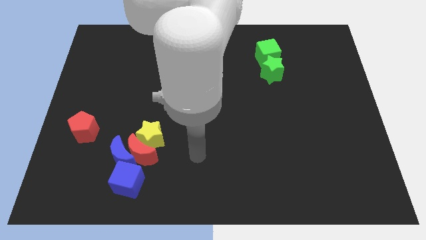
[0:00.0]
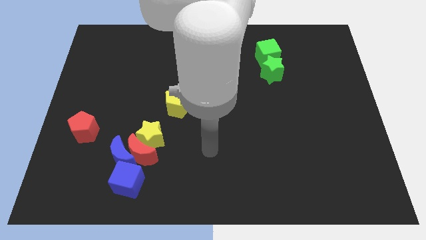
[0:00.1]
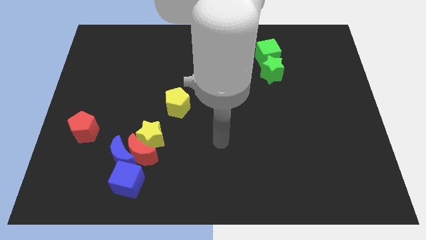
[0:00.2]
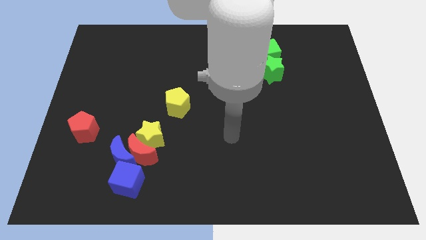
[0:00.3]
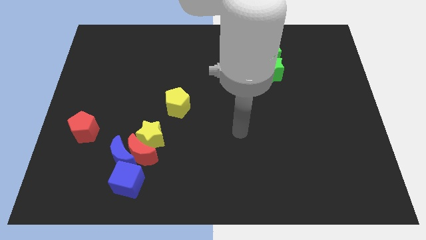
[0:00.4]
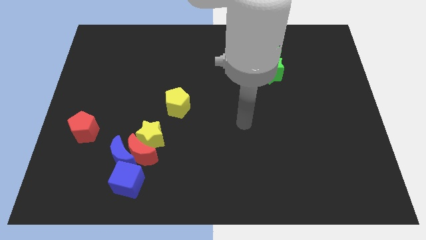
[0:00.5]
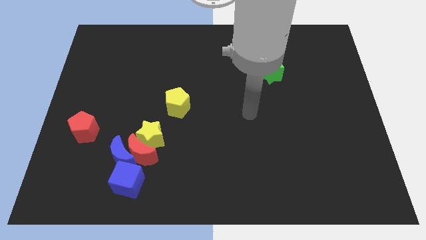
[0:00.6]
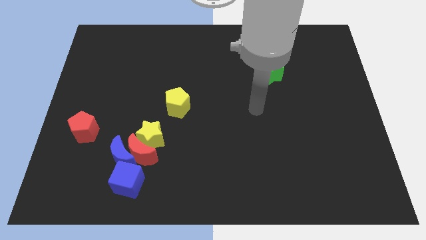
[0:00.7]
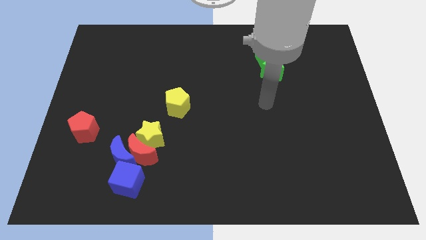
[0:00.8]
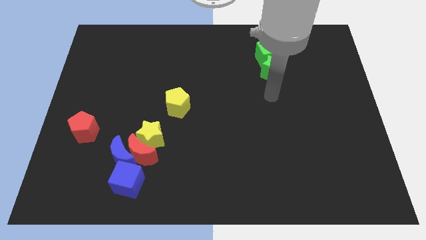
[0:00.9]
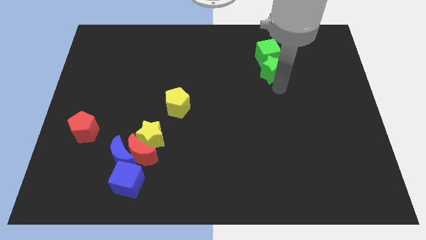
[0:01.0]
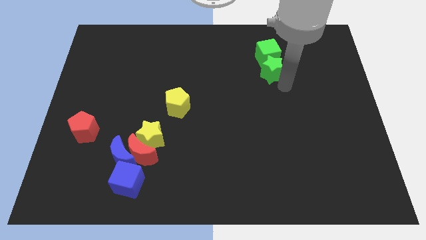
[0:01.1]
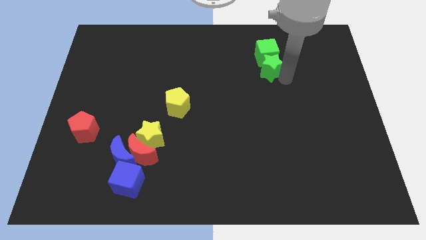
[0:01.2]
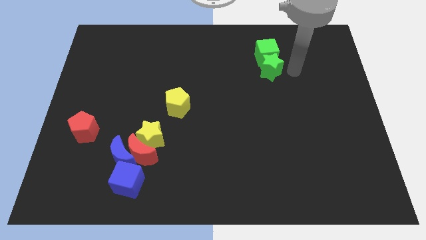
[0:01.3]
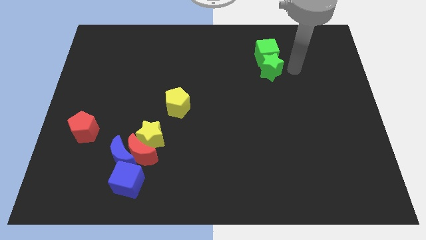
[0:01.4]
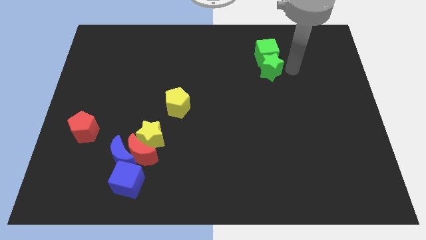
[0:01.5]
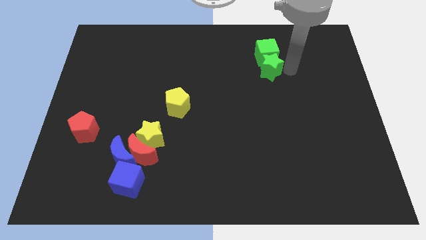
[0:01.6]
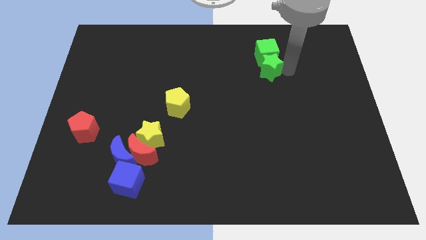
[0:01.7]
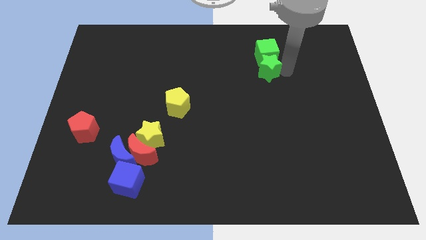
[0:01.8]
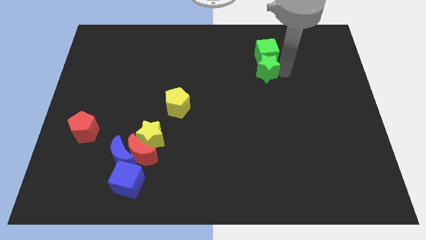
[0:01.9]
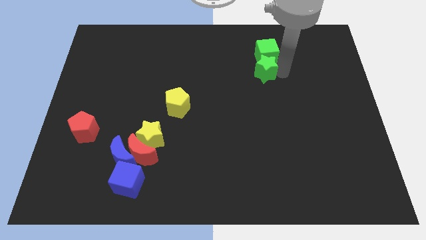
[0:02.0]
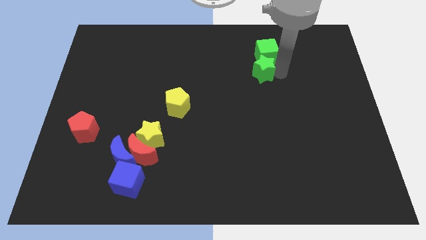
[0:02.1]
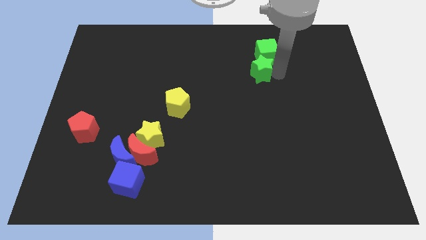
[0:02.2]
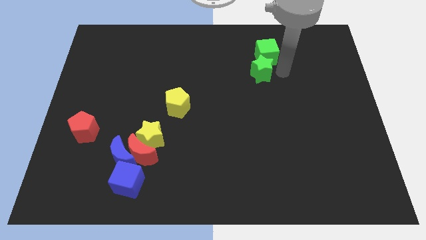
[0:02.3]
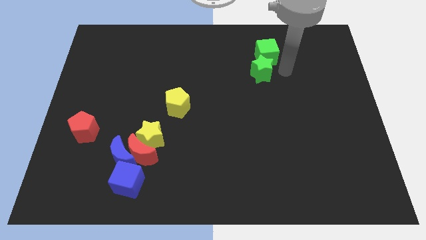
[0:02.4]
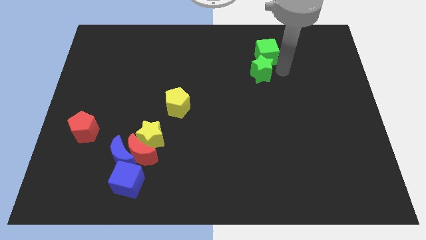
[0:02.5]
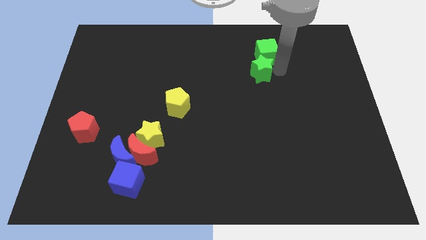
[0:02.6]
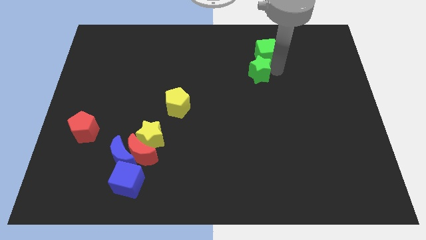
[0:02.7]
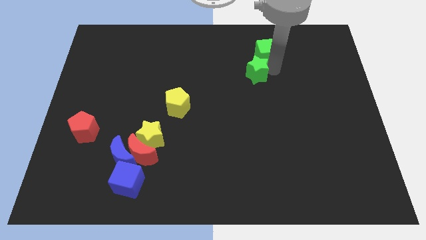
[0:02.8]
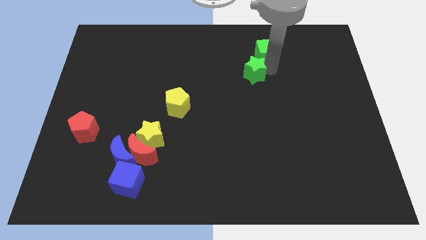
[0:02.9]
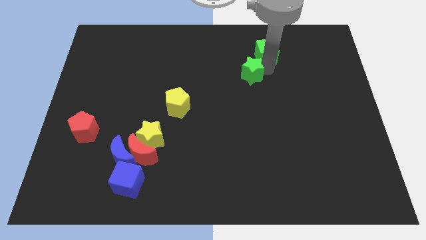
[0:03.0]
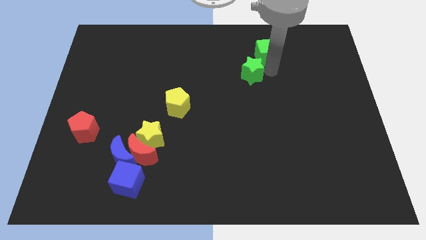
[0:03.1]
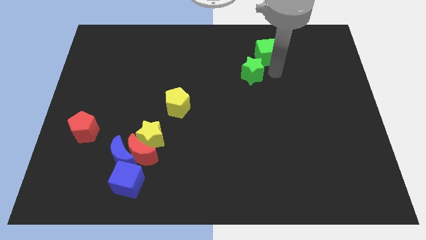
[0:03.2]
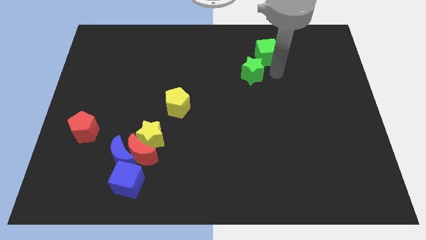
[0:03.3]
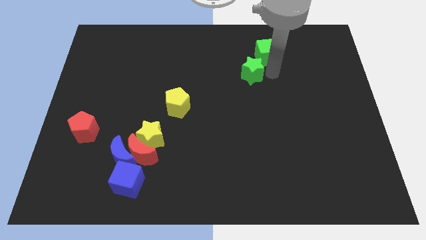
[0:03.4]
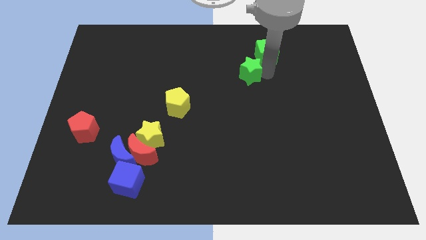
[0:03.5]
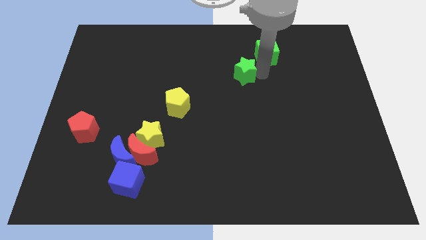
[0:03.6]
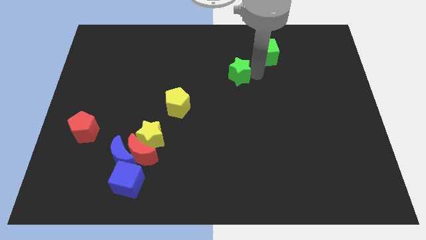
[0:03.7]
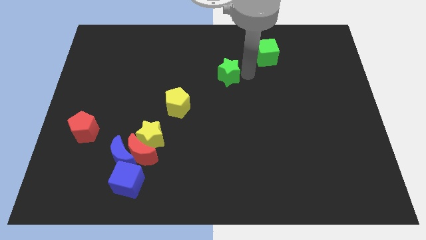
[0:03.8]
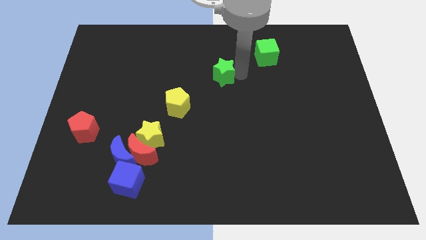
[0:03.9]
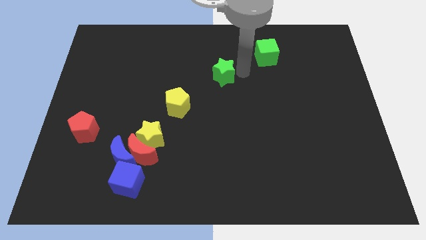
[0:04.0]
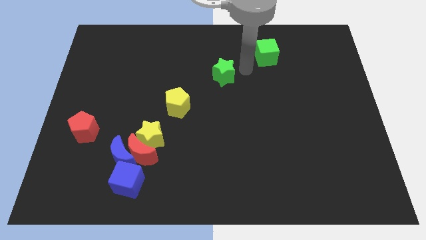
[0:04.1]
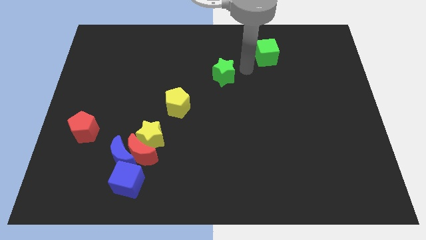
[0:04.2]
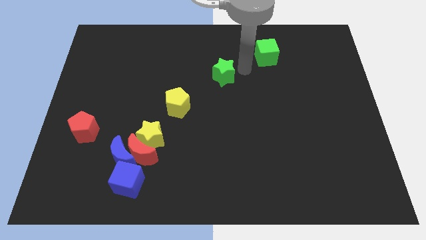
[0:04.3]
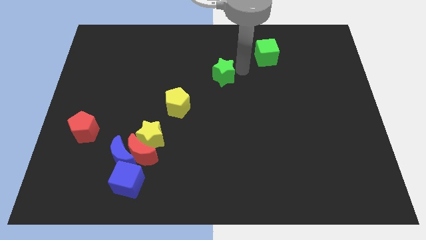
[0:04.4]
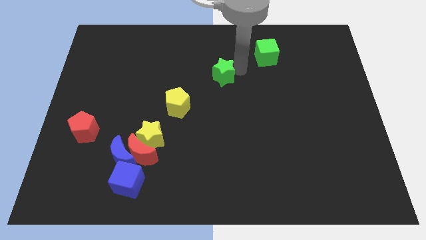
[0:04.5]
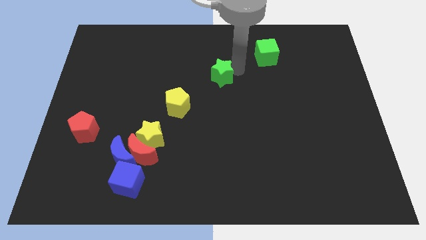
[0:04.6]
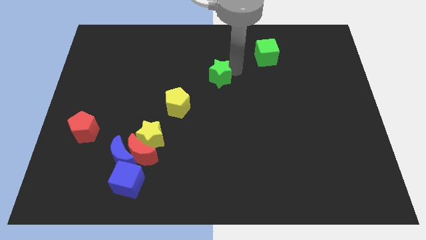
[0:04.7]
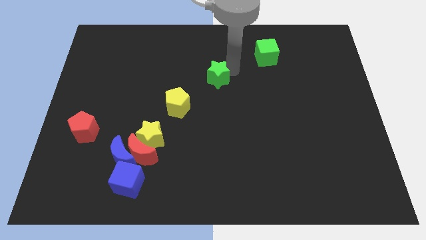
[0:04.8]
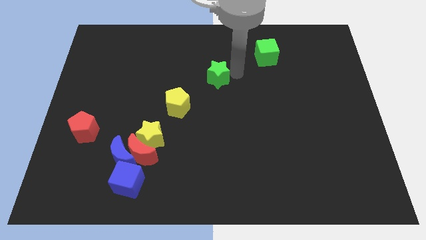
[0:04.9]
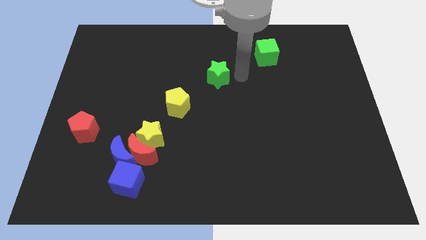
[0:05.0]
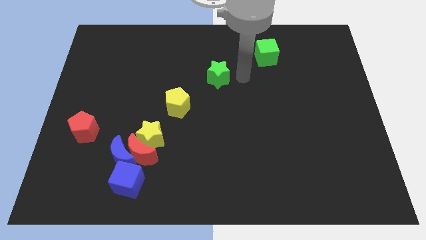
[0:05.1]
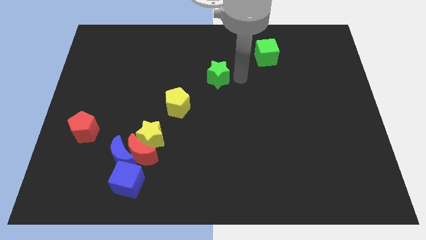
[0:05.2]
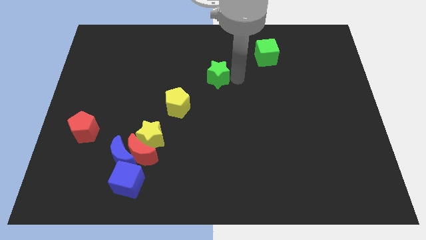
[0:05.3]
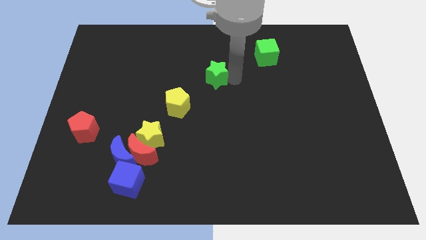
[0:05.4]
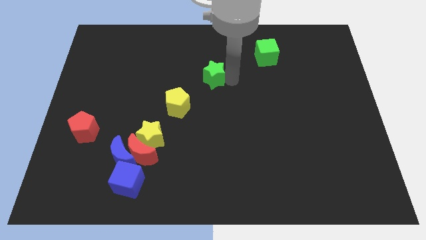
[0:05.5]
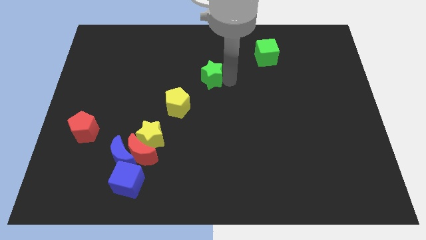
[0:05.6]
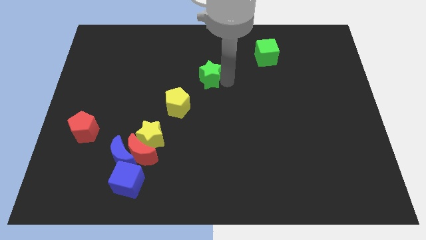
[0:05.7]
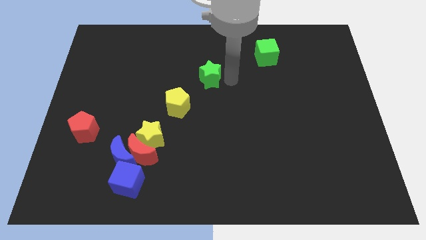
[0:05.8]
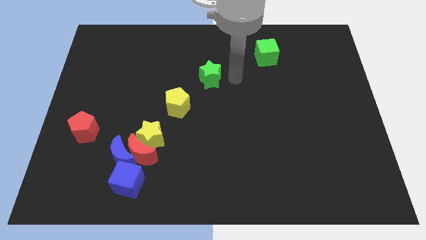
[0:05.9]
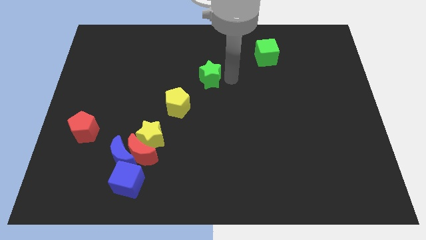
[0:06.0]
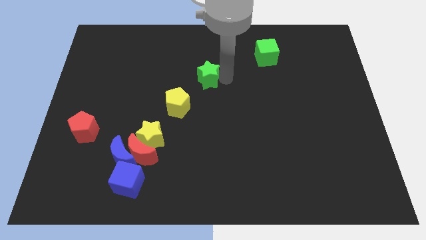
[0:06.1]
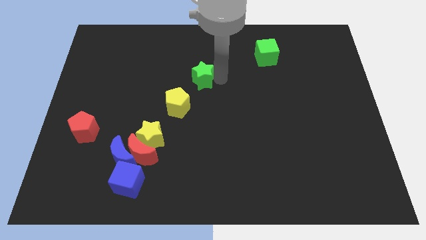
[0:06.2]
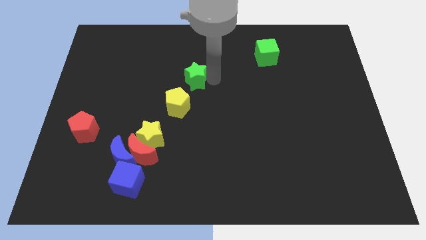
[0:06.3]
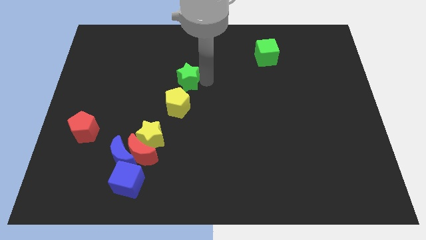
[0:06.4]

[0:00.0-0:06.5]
move the green star to the left

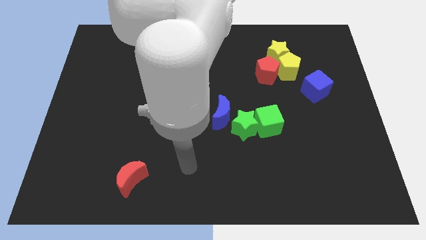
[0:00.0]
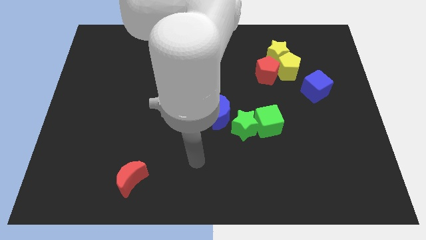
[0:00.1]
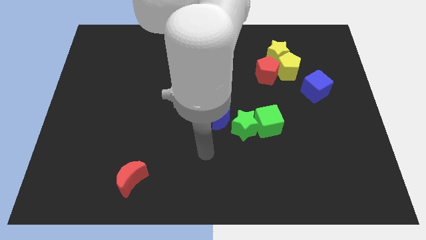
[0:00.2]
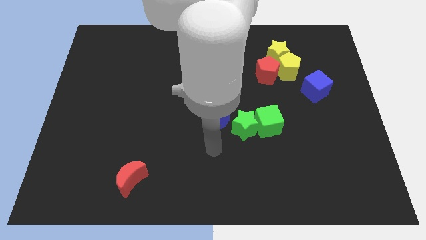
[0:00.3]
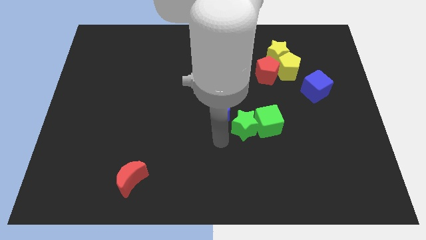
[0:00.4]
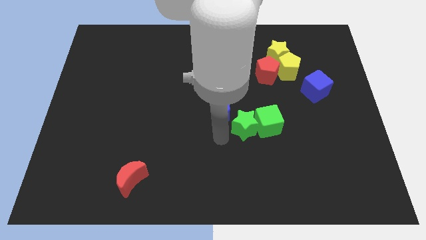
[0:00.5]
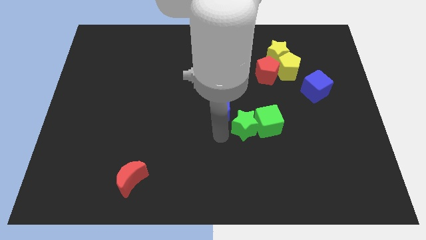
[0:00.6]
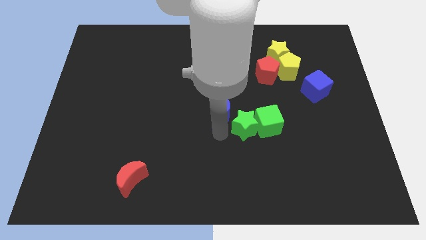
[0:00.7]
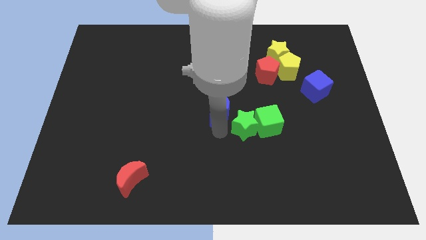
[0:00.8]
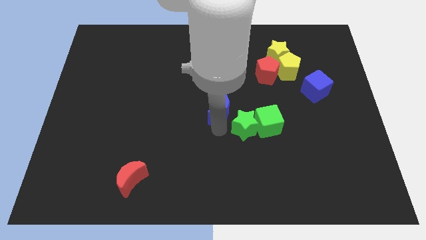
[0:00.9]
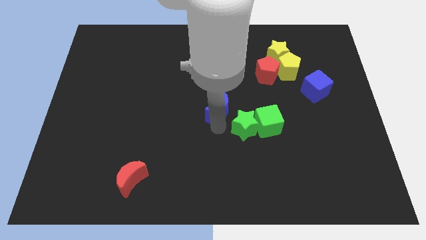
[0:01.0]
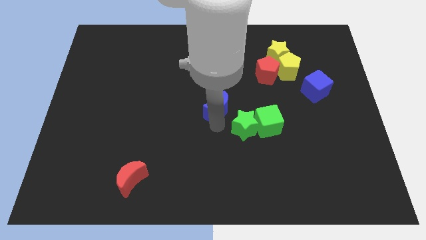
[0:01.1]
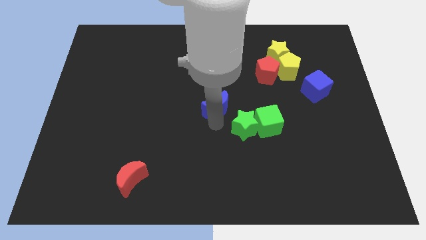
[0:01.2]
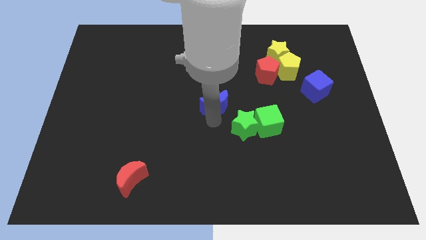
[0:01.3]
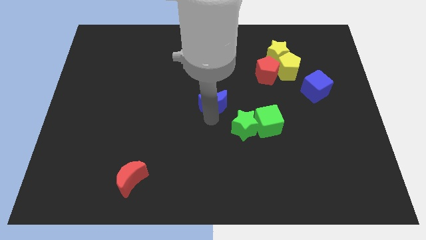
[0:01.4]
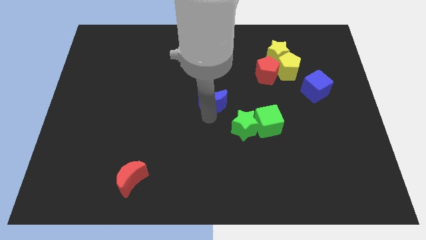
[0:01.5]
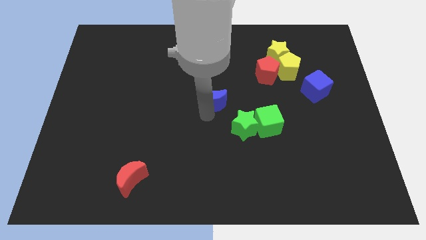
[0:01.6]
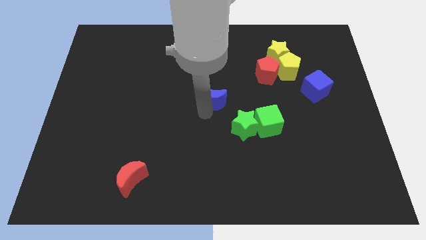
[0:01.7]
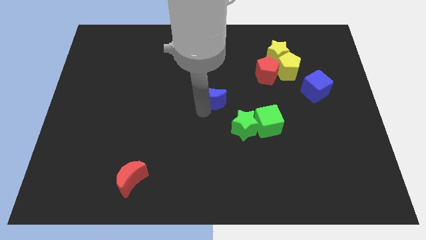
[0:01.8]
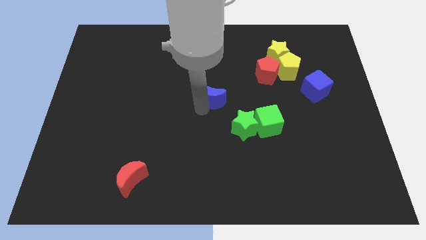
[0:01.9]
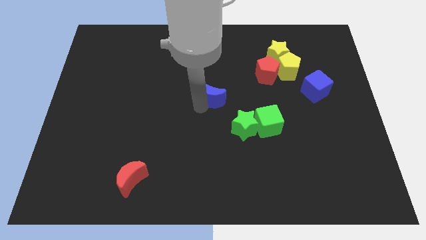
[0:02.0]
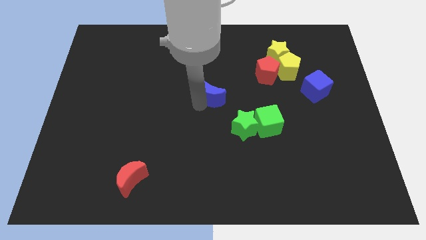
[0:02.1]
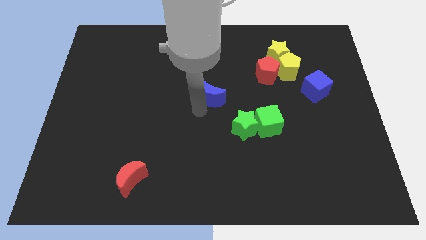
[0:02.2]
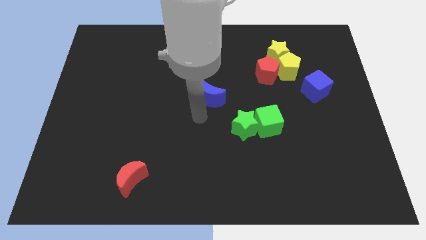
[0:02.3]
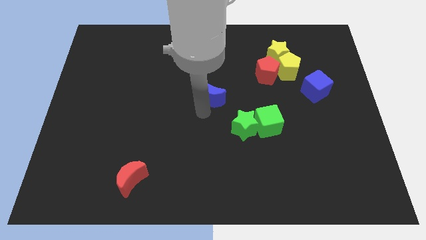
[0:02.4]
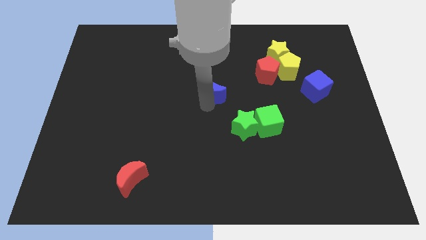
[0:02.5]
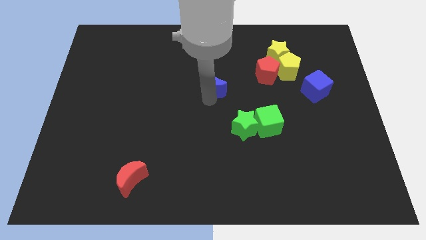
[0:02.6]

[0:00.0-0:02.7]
push the blue moon a little bit upwards
